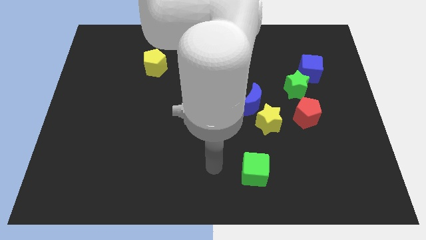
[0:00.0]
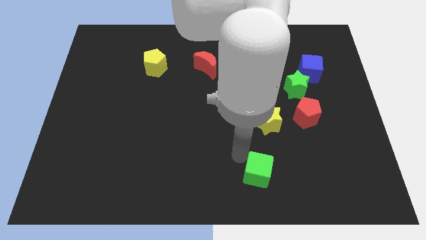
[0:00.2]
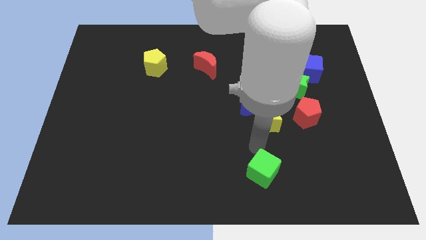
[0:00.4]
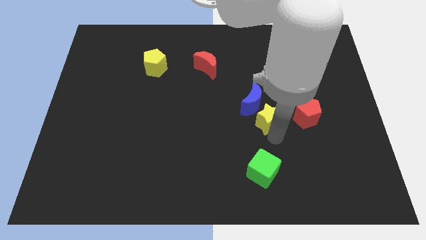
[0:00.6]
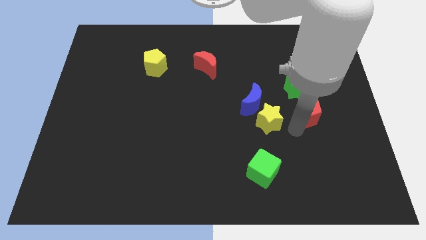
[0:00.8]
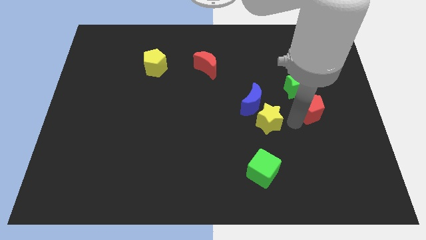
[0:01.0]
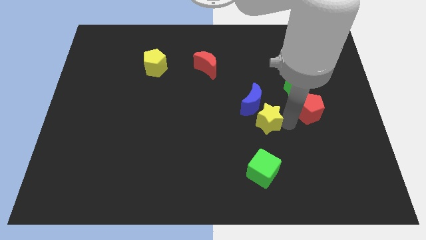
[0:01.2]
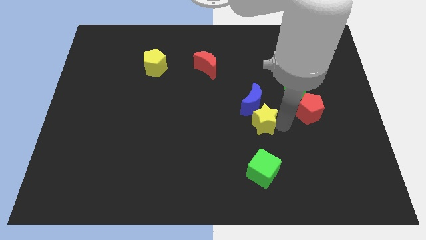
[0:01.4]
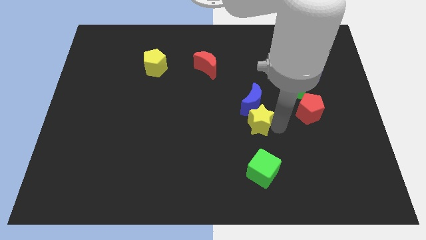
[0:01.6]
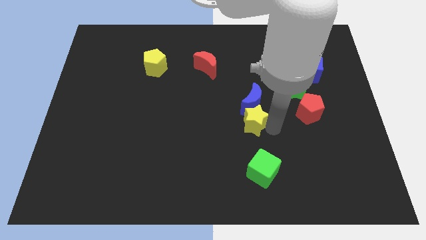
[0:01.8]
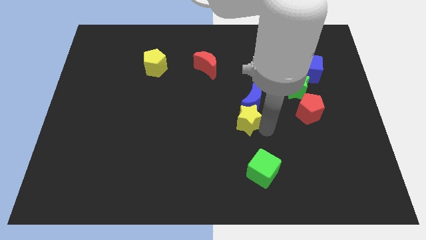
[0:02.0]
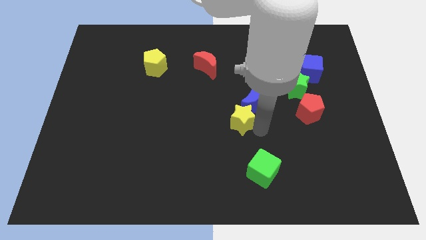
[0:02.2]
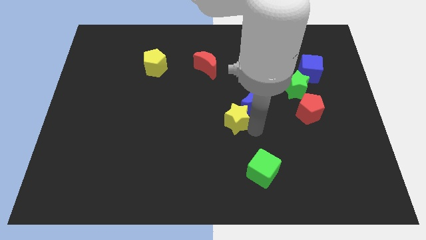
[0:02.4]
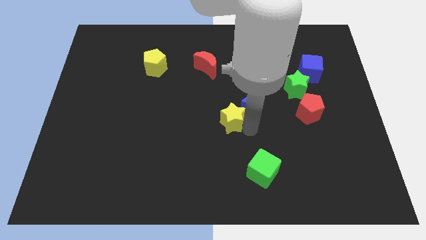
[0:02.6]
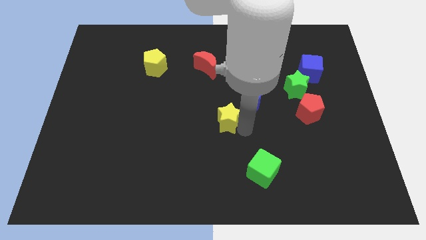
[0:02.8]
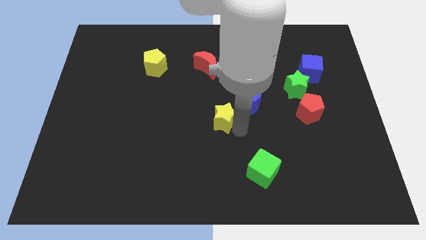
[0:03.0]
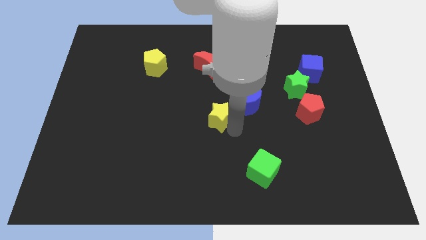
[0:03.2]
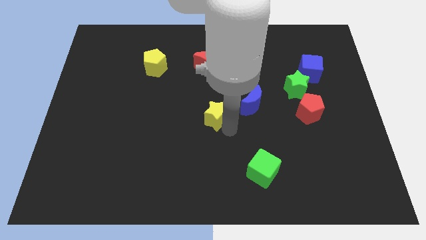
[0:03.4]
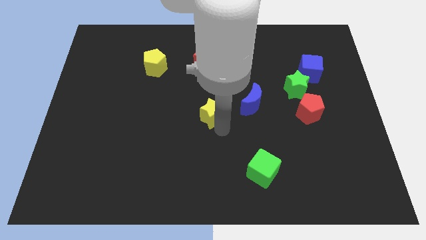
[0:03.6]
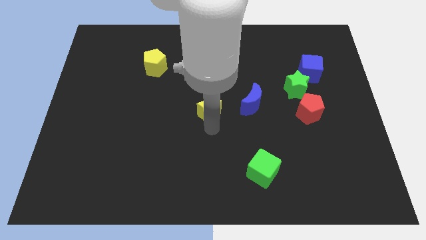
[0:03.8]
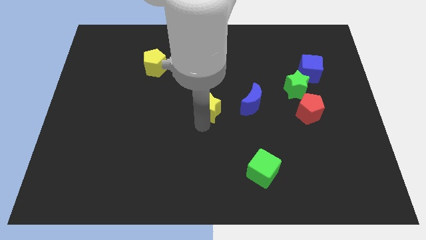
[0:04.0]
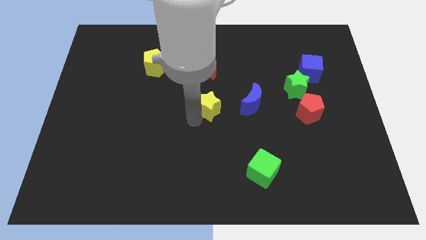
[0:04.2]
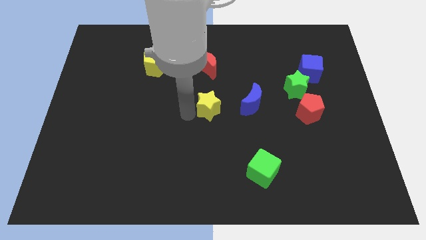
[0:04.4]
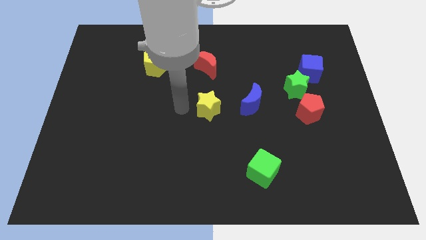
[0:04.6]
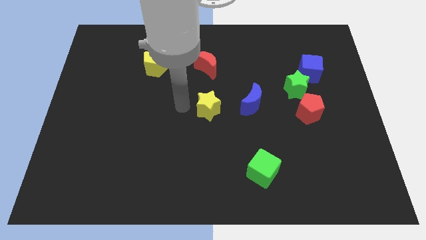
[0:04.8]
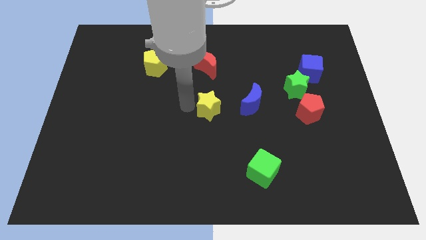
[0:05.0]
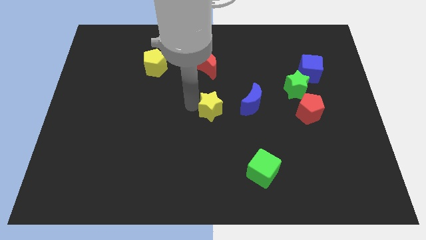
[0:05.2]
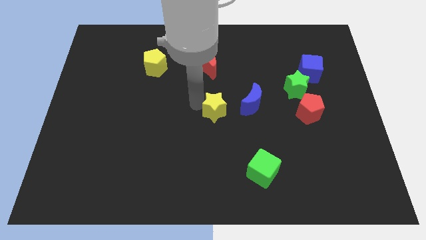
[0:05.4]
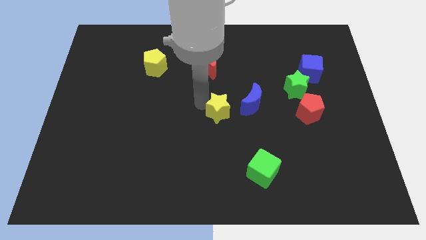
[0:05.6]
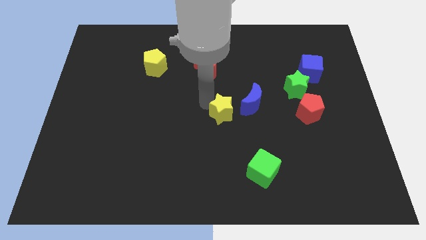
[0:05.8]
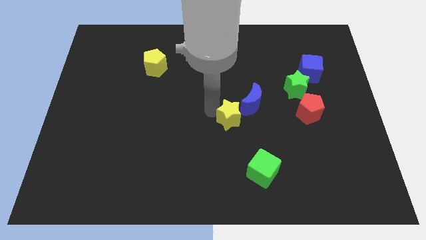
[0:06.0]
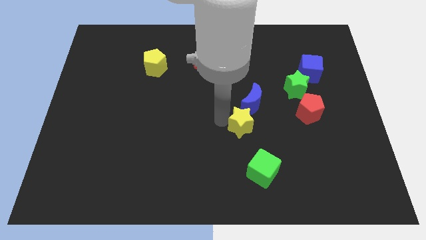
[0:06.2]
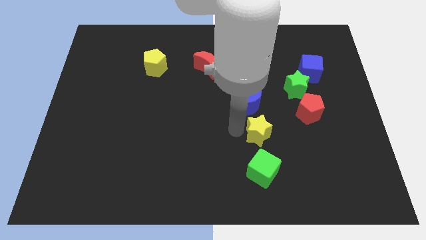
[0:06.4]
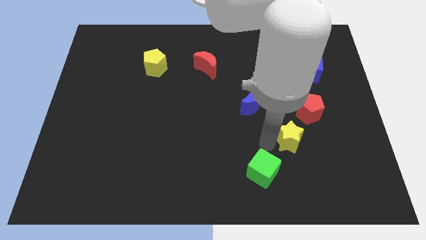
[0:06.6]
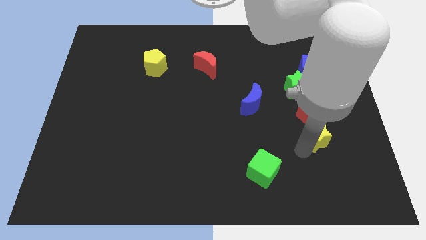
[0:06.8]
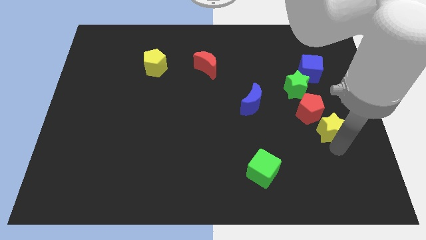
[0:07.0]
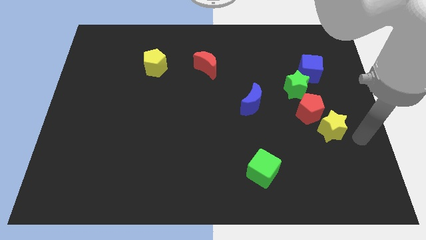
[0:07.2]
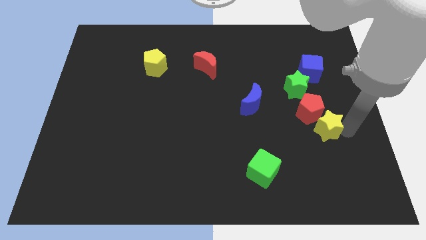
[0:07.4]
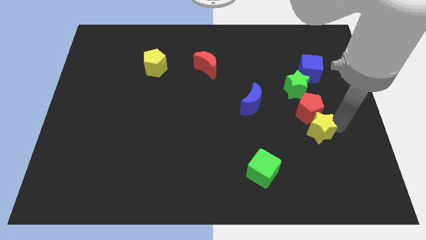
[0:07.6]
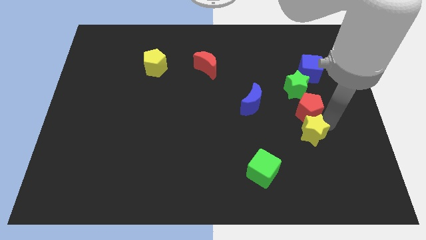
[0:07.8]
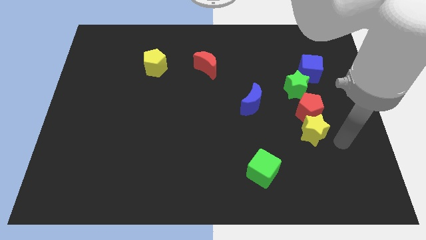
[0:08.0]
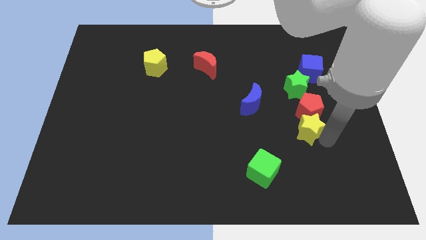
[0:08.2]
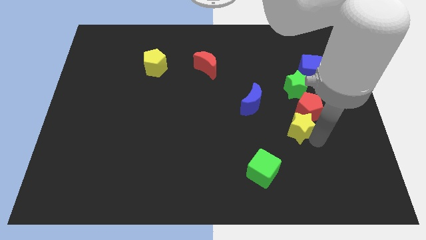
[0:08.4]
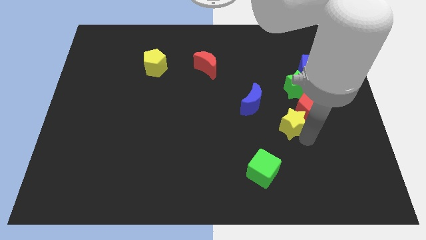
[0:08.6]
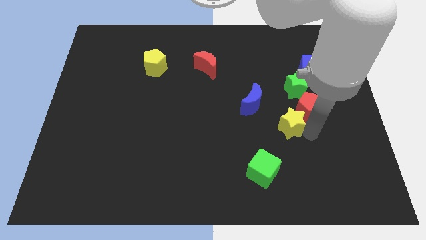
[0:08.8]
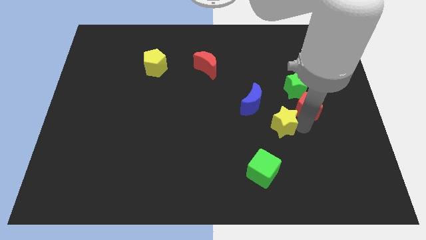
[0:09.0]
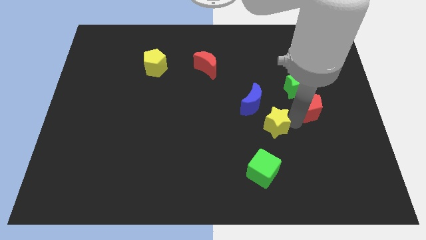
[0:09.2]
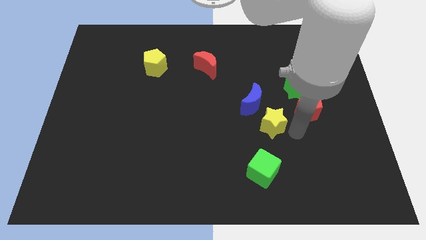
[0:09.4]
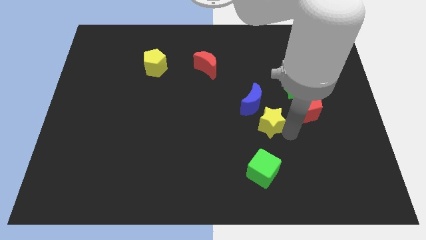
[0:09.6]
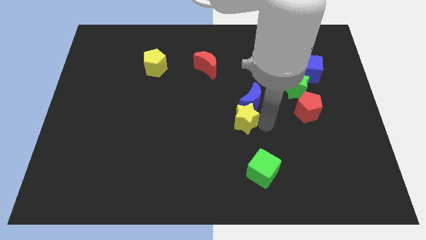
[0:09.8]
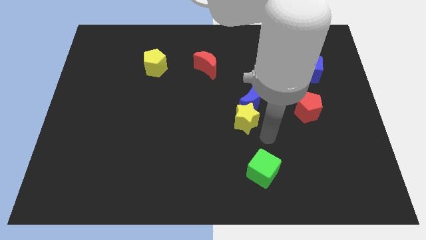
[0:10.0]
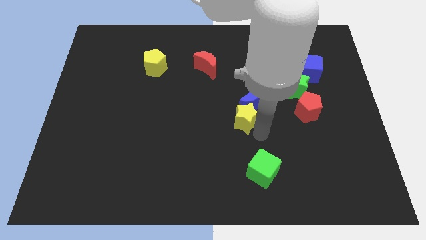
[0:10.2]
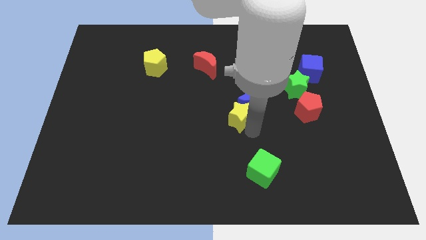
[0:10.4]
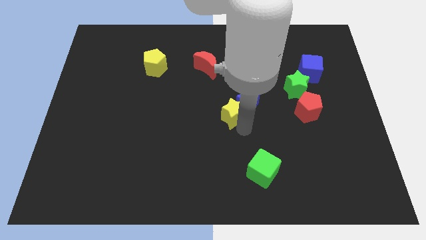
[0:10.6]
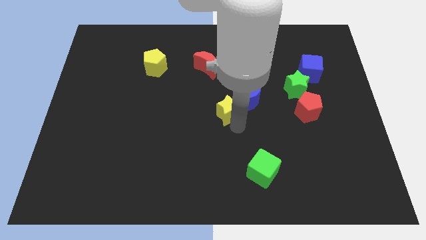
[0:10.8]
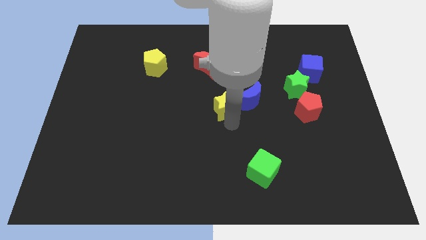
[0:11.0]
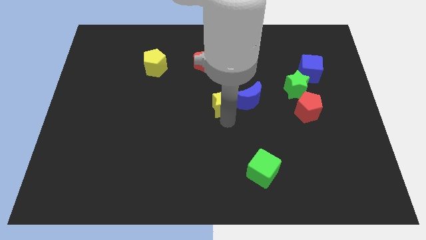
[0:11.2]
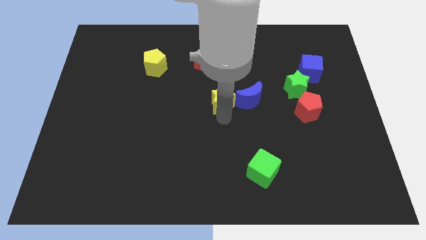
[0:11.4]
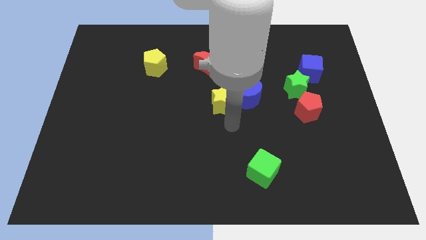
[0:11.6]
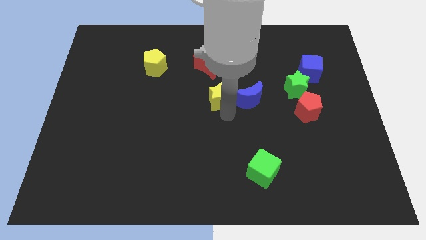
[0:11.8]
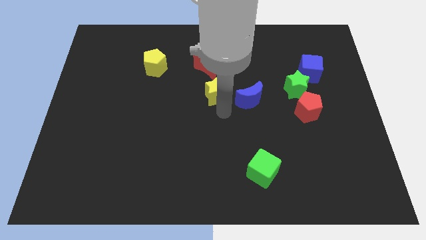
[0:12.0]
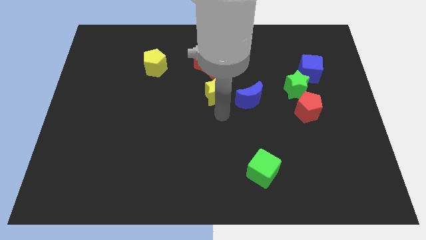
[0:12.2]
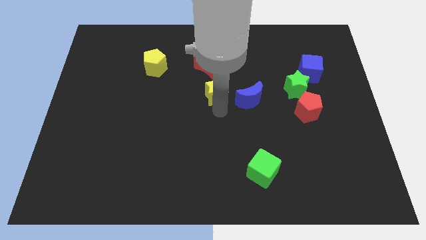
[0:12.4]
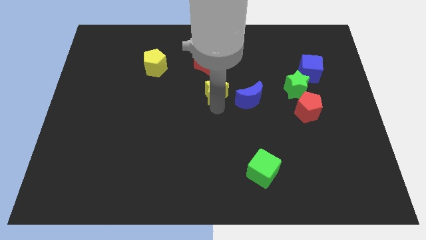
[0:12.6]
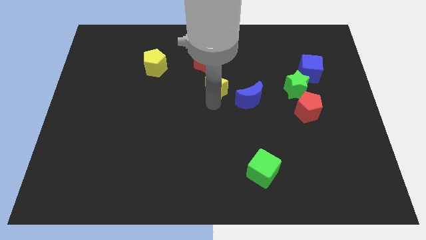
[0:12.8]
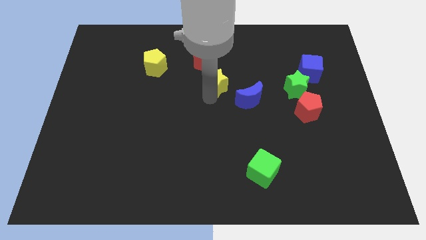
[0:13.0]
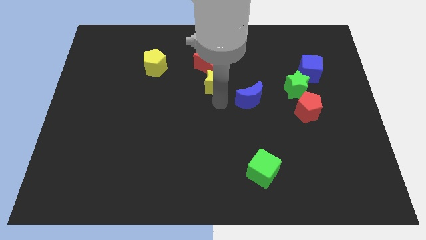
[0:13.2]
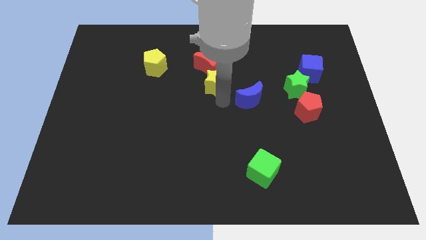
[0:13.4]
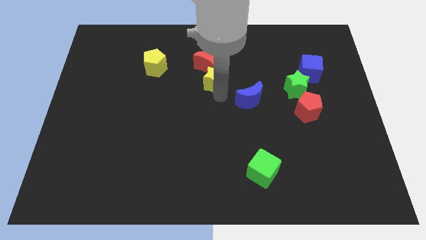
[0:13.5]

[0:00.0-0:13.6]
slide the yellow star close to the red moon

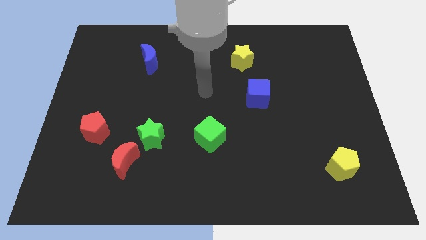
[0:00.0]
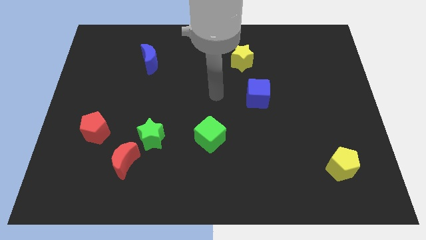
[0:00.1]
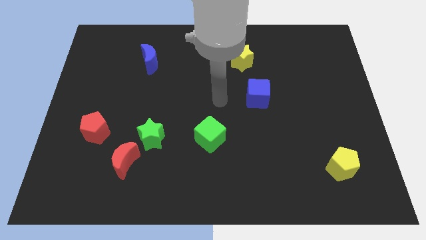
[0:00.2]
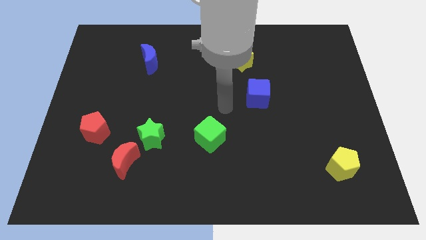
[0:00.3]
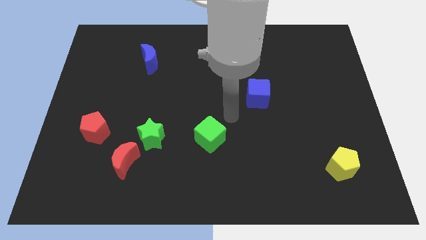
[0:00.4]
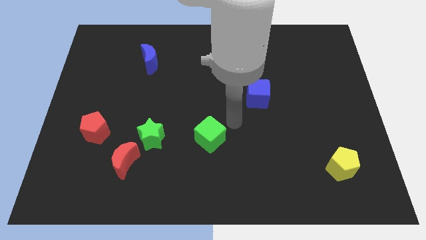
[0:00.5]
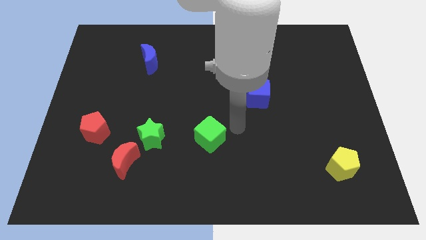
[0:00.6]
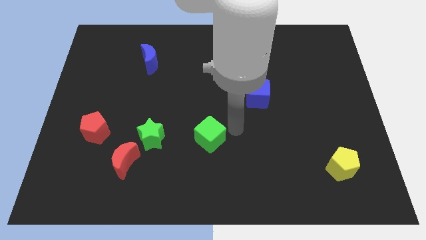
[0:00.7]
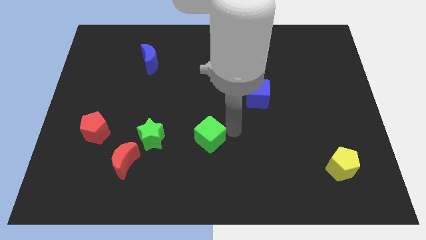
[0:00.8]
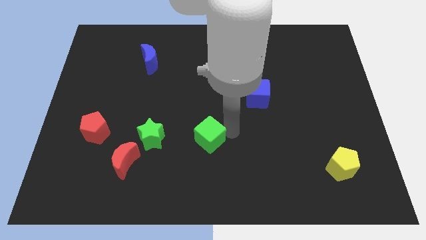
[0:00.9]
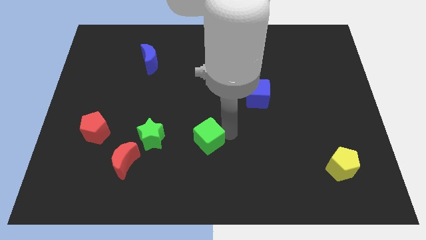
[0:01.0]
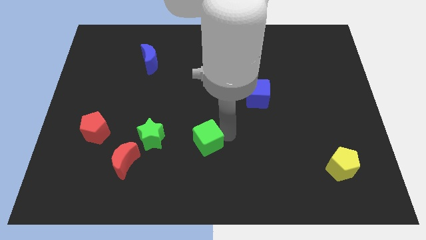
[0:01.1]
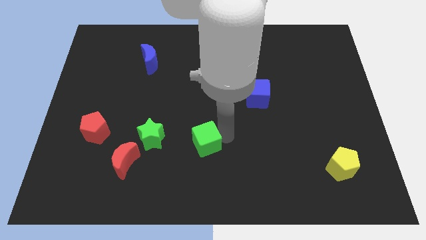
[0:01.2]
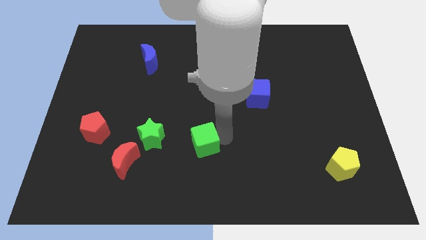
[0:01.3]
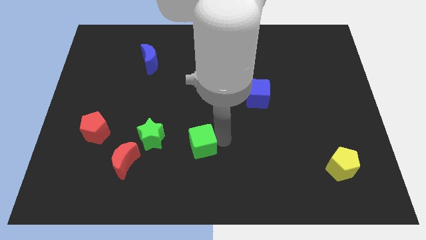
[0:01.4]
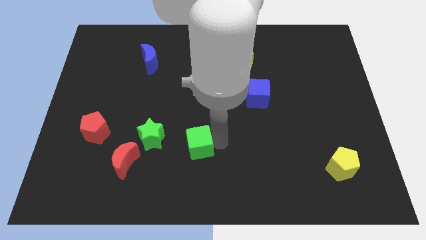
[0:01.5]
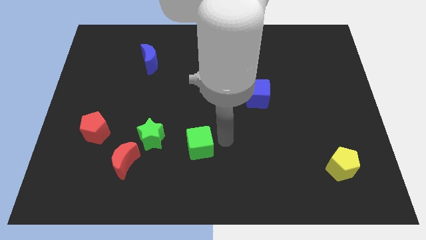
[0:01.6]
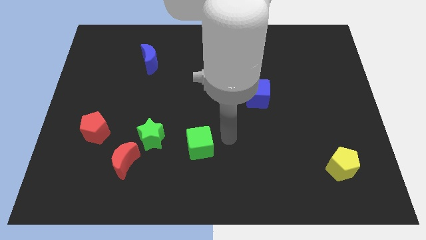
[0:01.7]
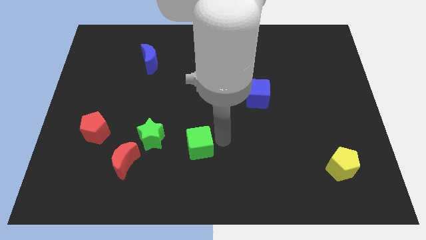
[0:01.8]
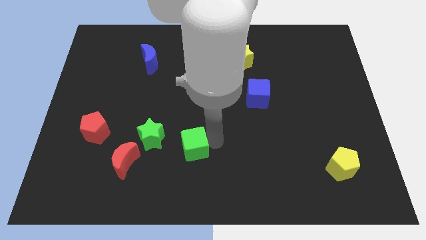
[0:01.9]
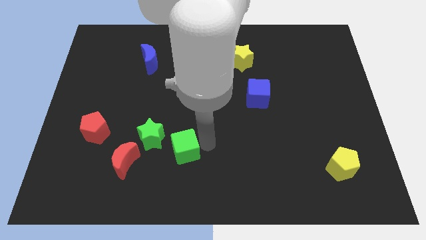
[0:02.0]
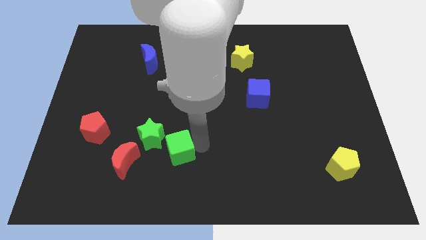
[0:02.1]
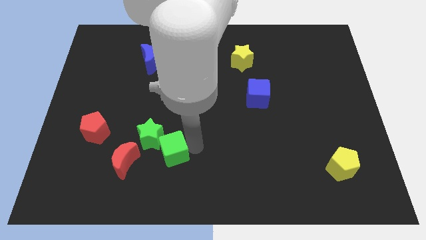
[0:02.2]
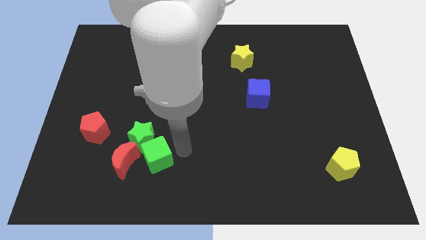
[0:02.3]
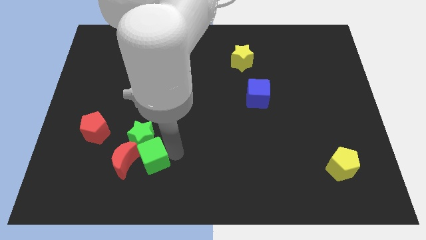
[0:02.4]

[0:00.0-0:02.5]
slide the green cube next to the red moon
